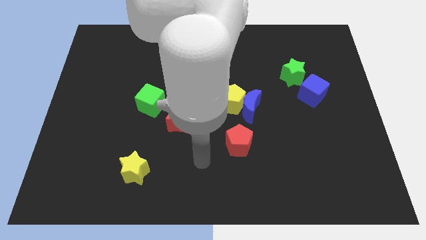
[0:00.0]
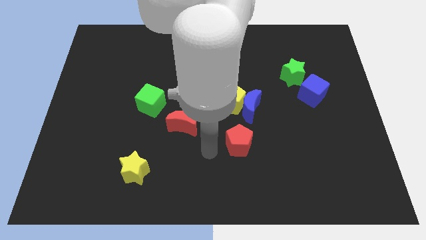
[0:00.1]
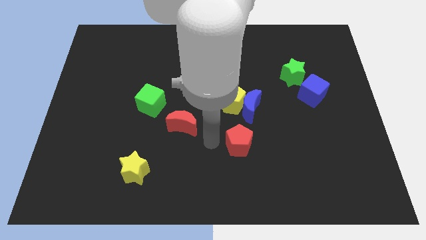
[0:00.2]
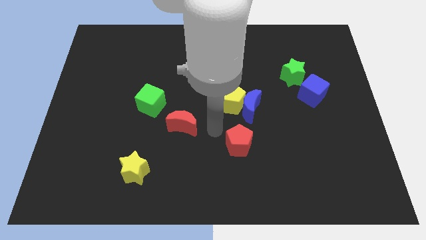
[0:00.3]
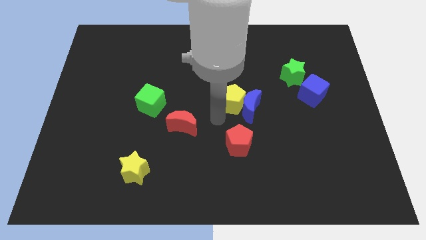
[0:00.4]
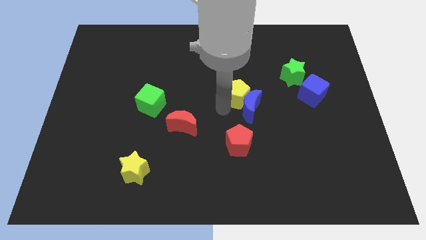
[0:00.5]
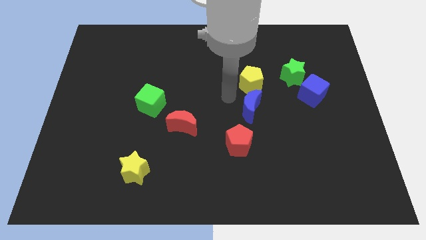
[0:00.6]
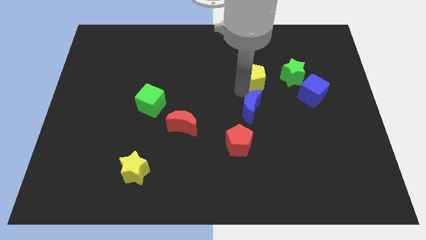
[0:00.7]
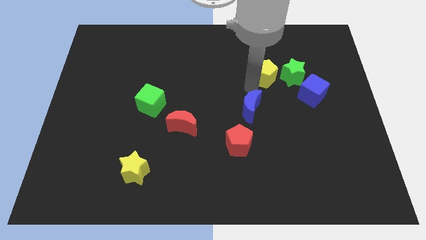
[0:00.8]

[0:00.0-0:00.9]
move the blue moon away from the yellow pentagon

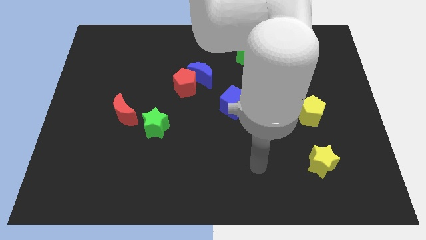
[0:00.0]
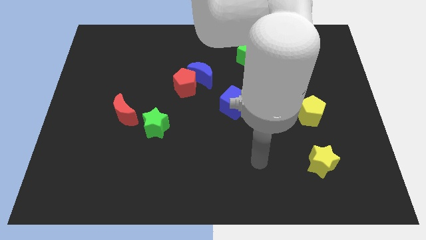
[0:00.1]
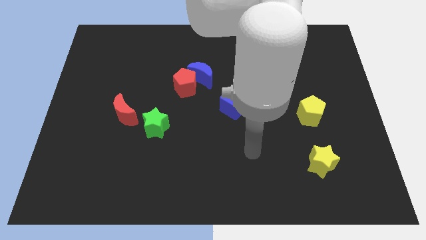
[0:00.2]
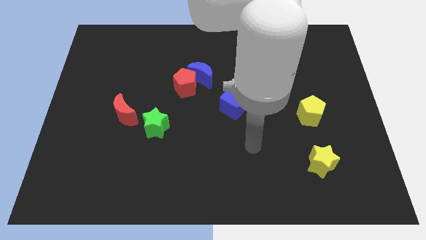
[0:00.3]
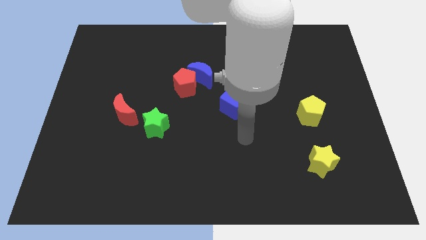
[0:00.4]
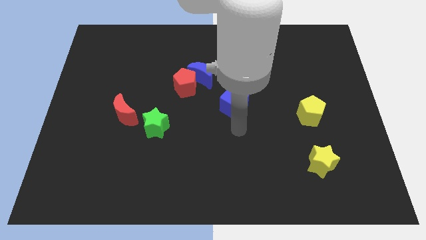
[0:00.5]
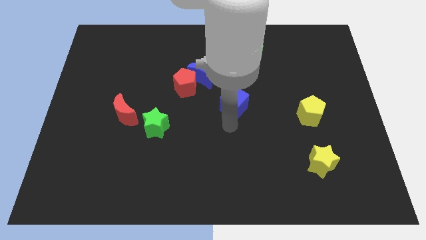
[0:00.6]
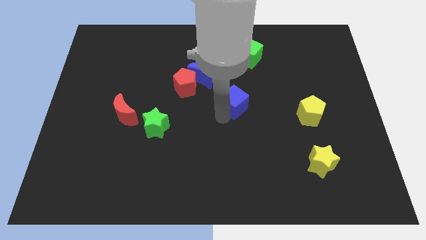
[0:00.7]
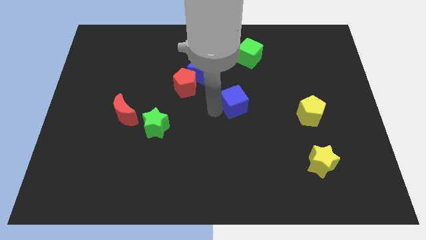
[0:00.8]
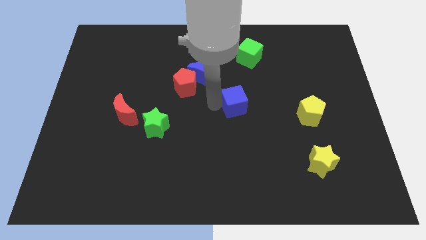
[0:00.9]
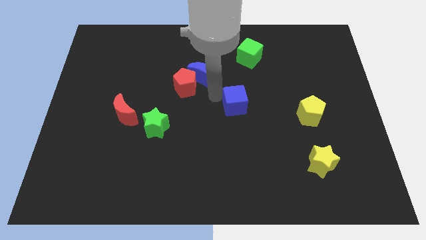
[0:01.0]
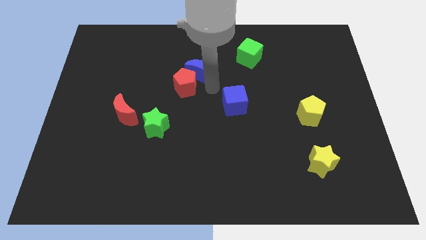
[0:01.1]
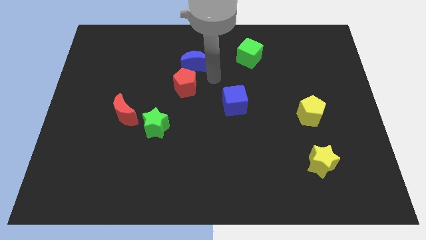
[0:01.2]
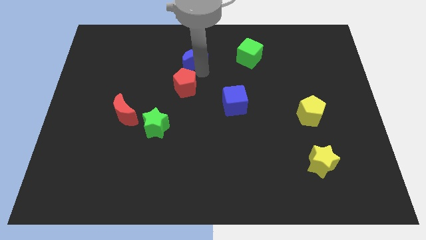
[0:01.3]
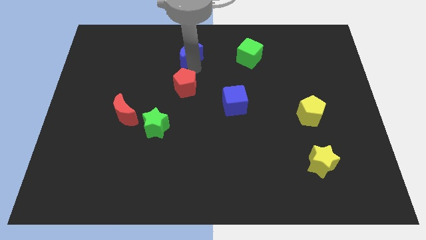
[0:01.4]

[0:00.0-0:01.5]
separate the red pentagon from the blue moon

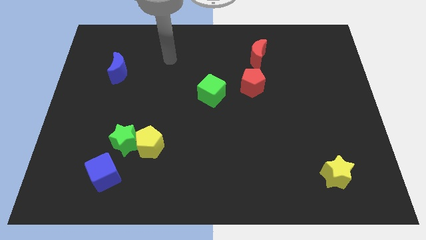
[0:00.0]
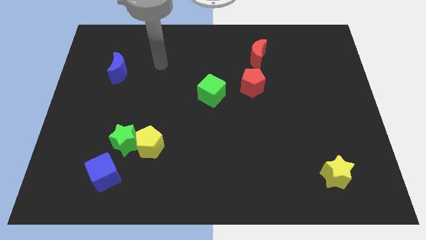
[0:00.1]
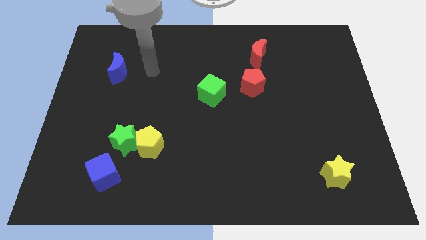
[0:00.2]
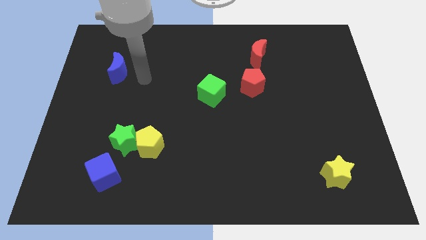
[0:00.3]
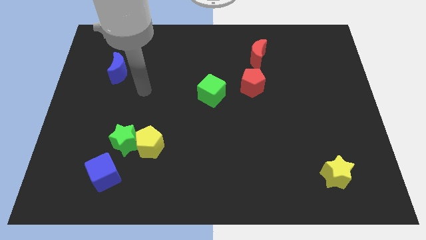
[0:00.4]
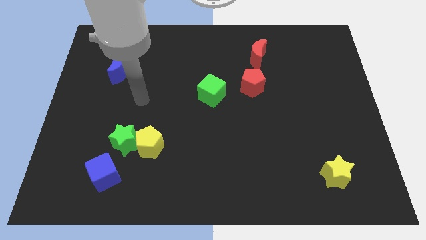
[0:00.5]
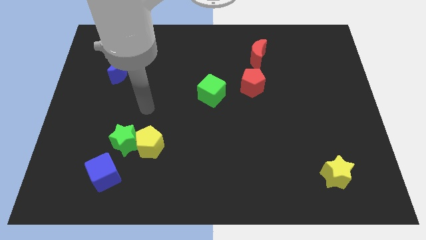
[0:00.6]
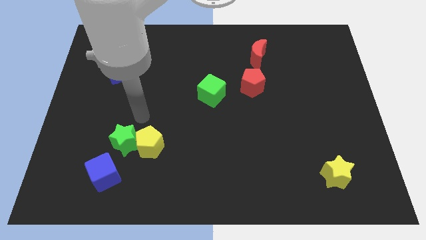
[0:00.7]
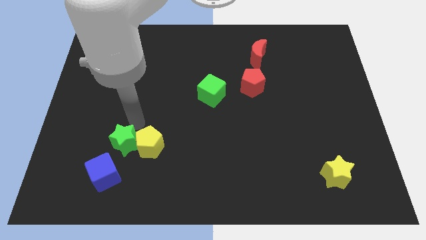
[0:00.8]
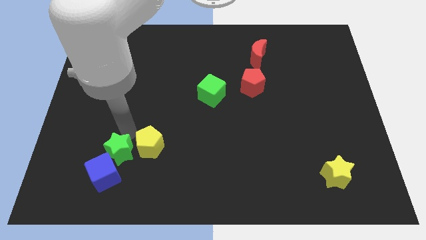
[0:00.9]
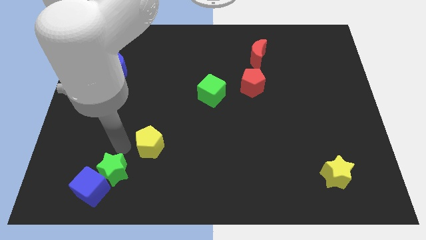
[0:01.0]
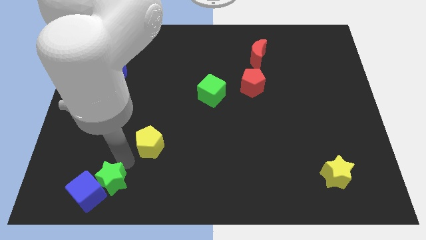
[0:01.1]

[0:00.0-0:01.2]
pull the yellow pentagon apart from the green star

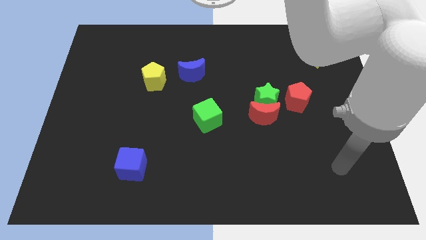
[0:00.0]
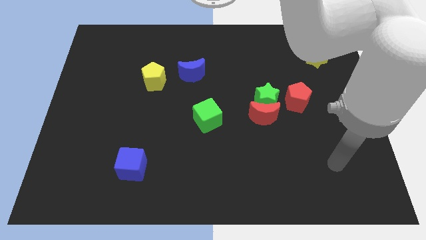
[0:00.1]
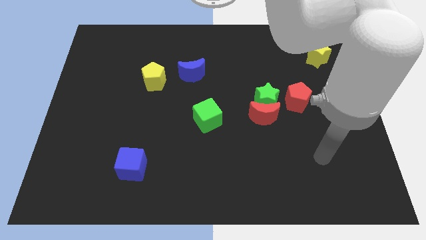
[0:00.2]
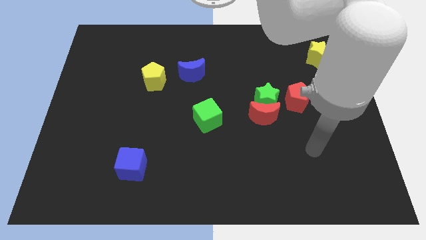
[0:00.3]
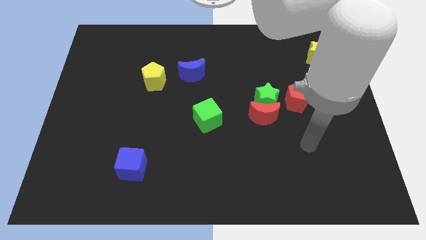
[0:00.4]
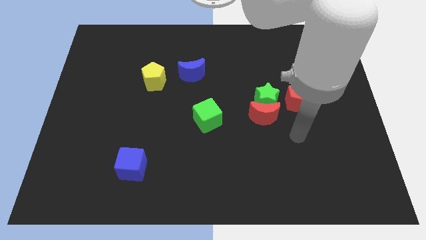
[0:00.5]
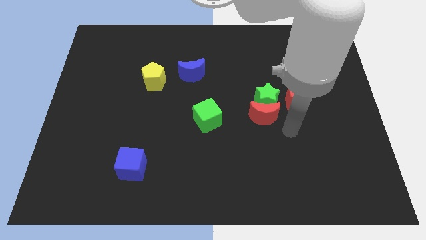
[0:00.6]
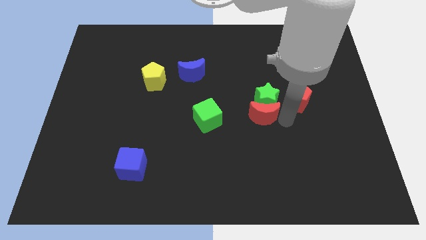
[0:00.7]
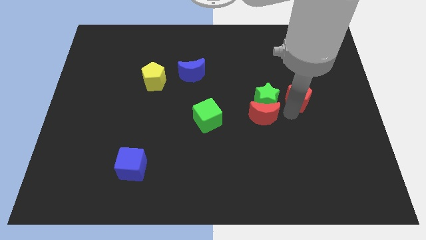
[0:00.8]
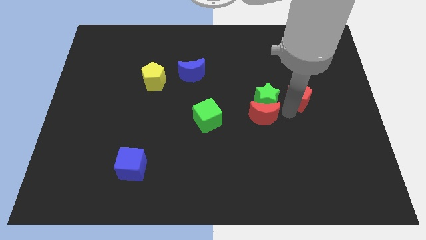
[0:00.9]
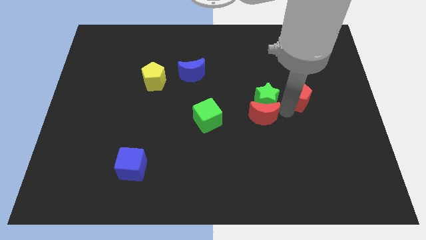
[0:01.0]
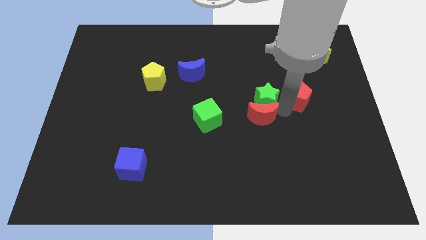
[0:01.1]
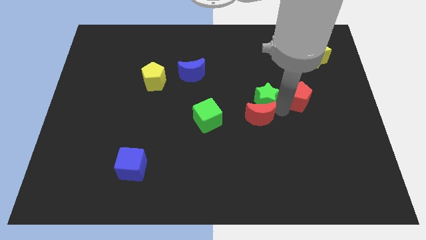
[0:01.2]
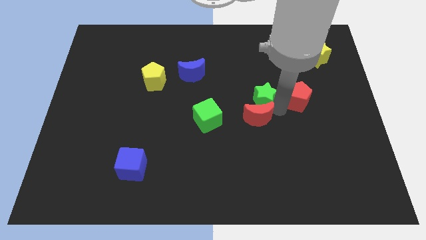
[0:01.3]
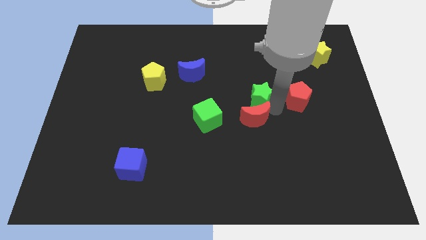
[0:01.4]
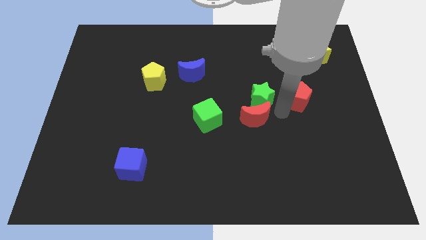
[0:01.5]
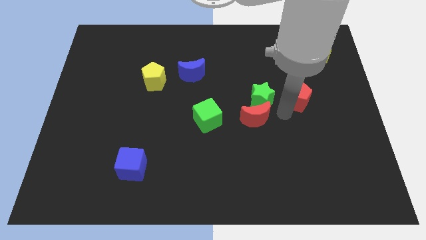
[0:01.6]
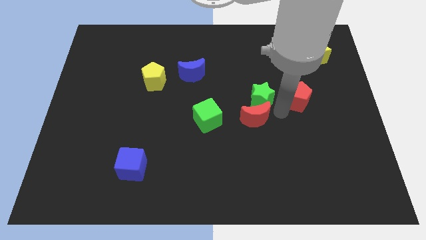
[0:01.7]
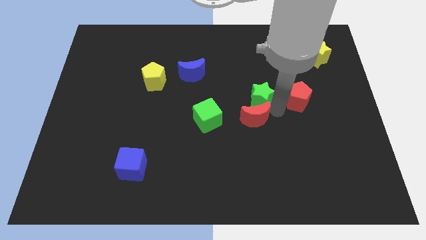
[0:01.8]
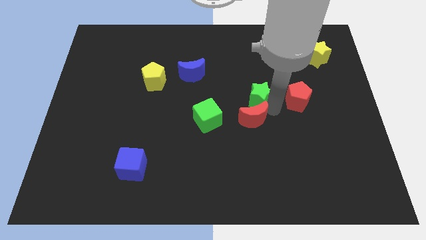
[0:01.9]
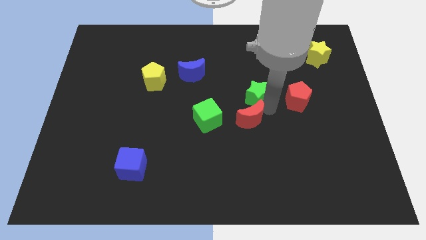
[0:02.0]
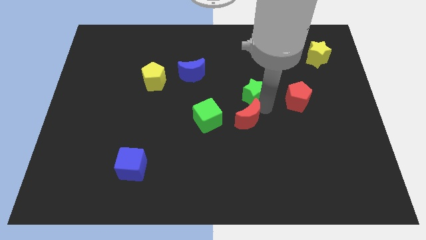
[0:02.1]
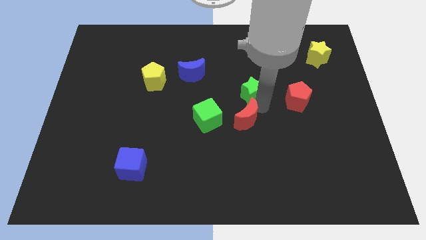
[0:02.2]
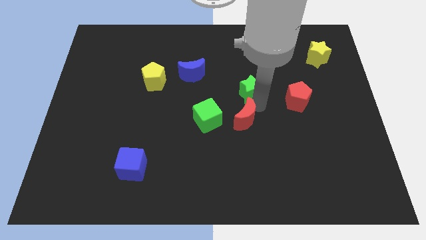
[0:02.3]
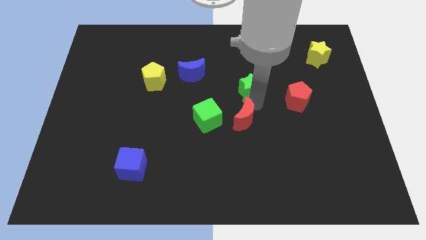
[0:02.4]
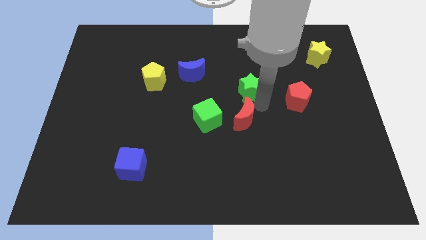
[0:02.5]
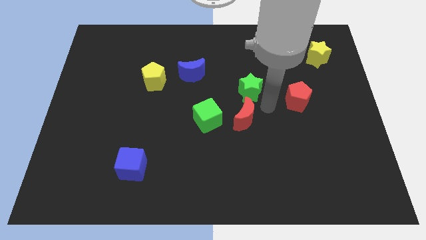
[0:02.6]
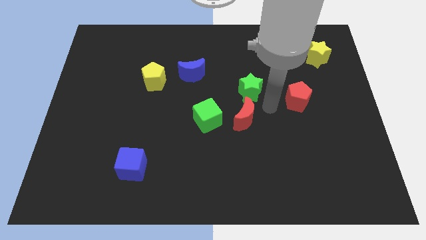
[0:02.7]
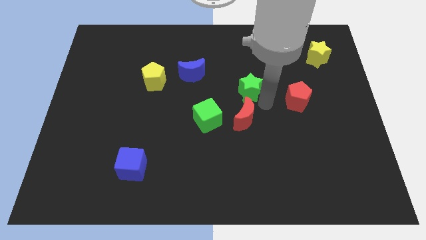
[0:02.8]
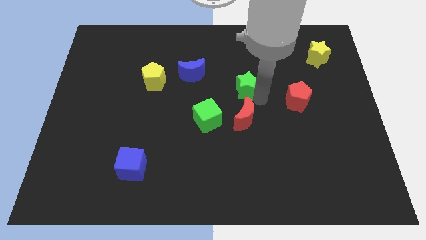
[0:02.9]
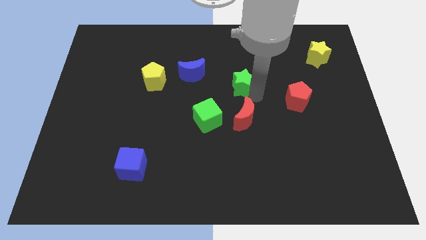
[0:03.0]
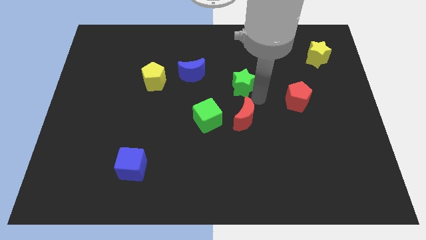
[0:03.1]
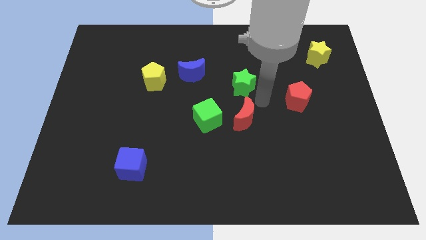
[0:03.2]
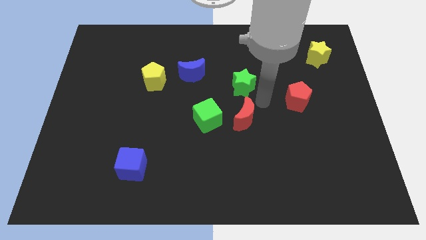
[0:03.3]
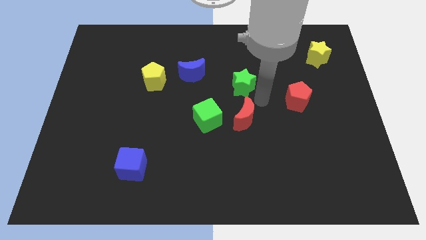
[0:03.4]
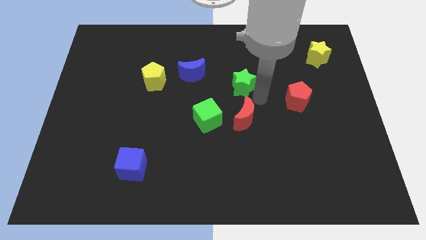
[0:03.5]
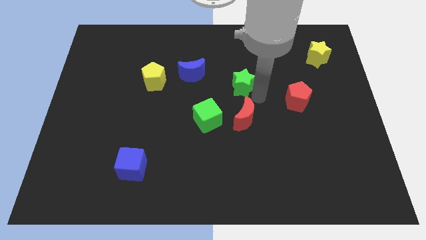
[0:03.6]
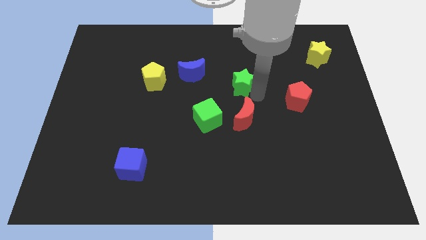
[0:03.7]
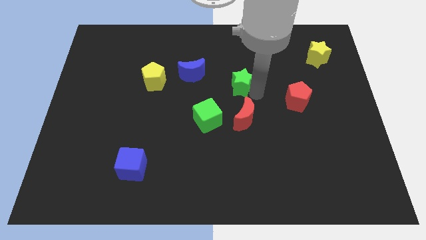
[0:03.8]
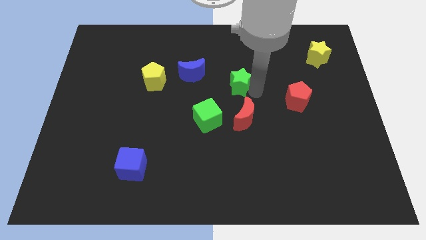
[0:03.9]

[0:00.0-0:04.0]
separate the green star from the red moon and red pentagon

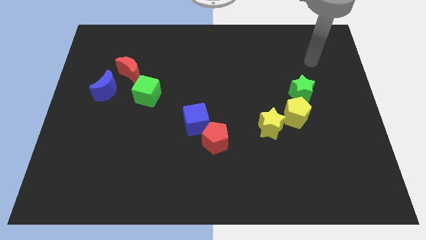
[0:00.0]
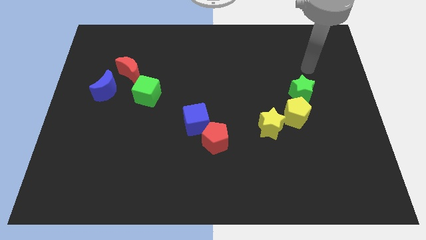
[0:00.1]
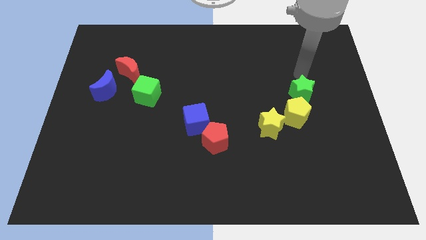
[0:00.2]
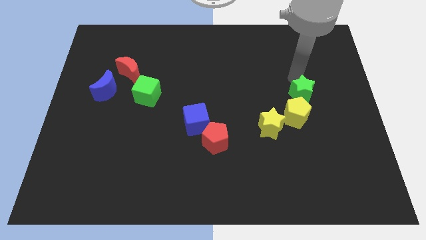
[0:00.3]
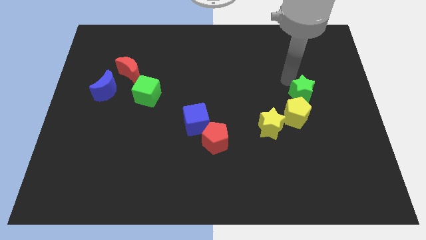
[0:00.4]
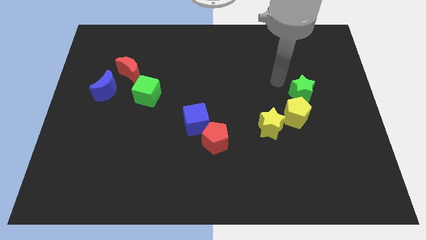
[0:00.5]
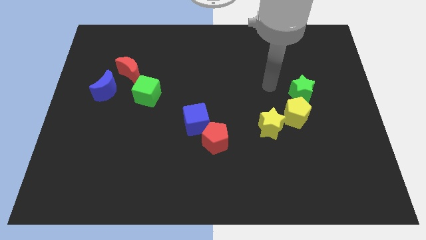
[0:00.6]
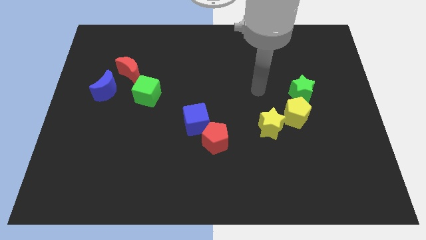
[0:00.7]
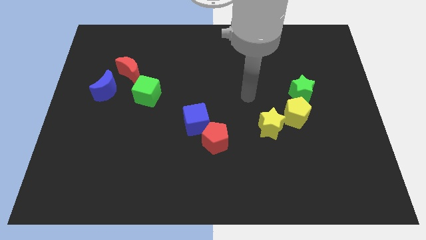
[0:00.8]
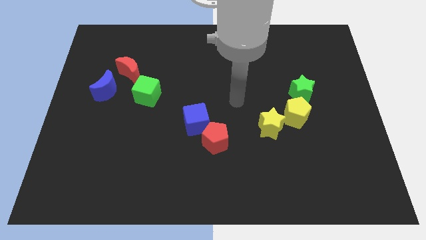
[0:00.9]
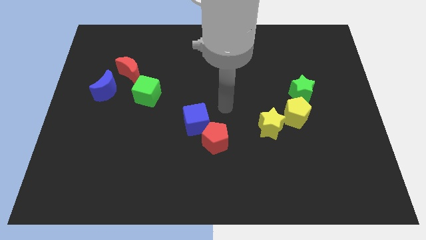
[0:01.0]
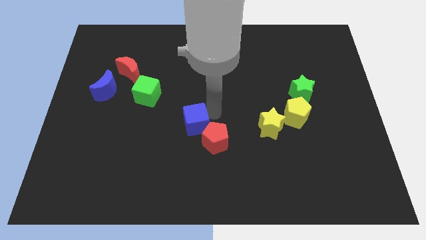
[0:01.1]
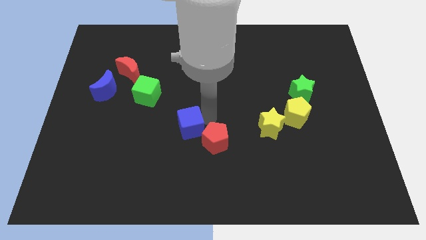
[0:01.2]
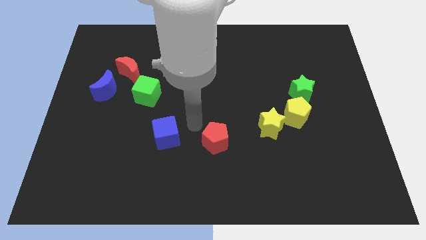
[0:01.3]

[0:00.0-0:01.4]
separate the red pentagon from the blue cube

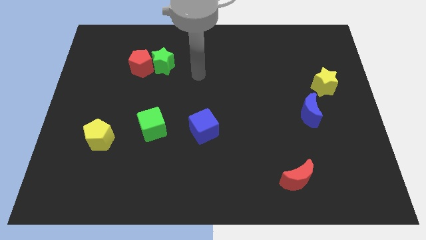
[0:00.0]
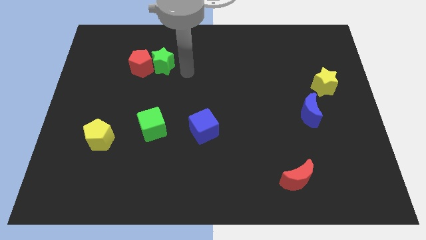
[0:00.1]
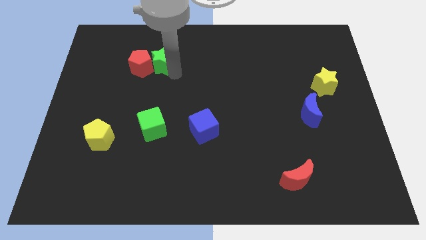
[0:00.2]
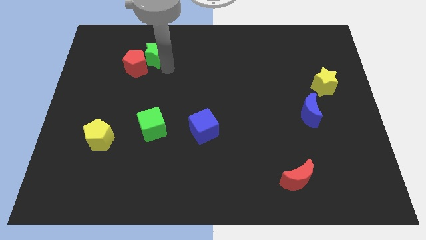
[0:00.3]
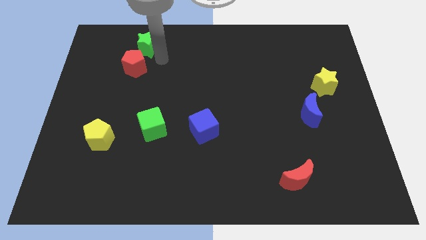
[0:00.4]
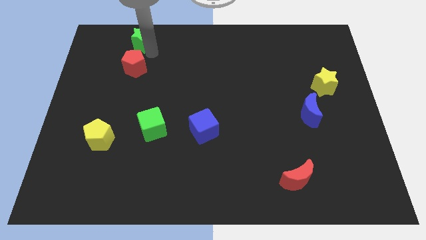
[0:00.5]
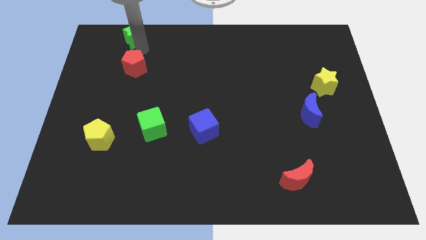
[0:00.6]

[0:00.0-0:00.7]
separate the red pentagon from the green star
